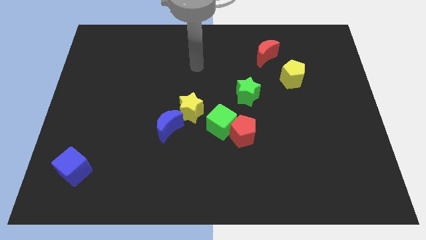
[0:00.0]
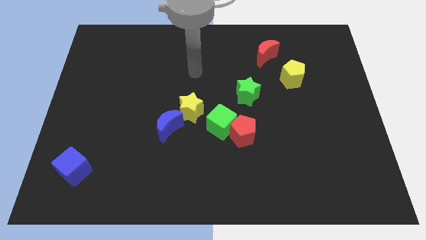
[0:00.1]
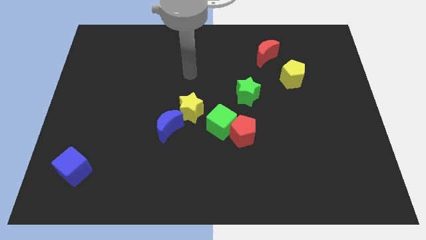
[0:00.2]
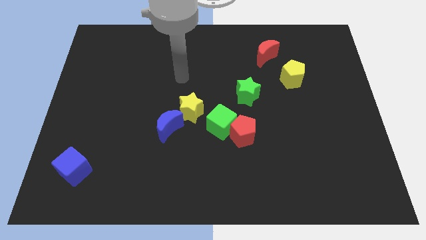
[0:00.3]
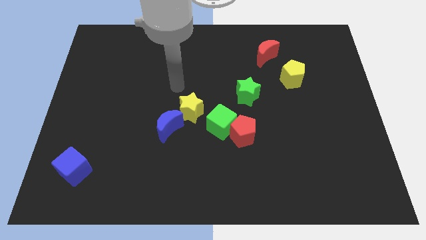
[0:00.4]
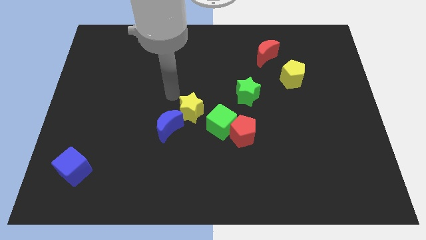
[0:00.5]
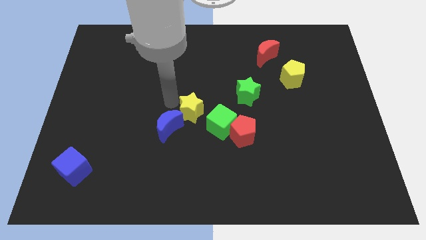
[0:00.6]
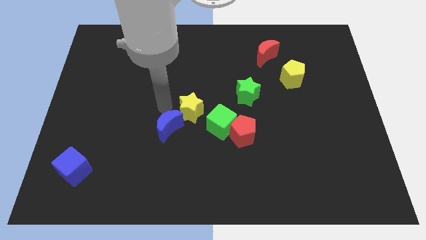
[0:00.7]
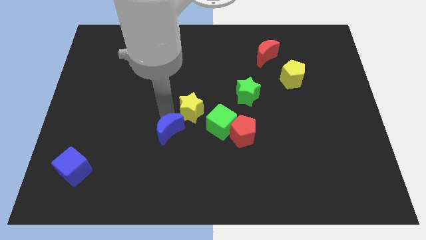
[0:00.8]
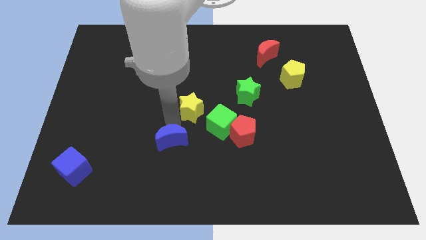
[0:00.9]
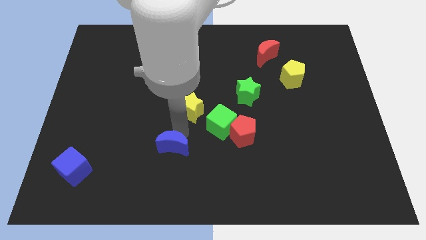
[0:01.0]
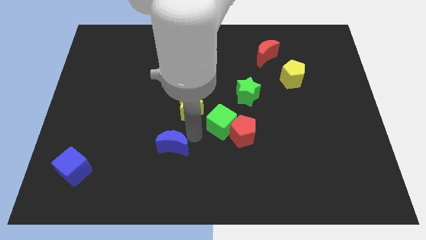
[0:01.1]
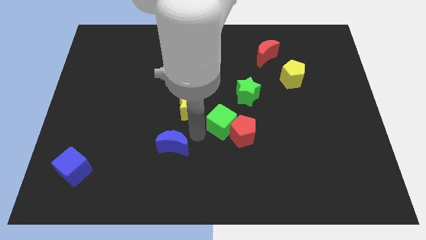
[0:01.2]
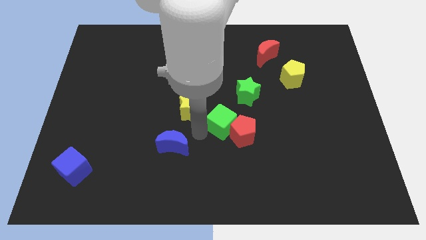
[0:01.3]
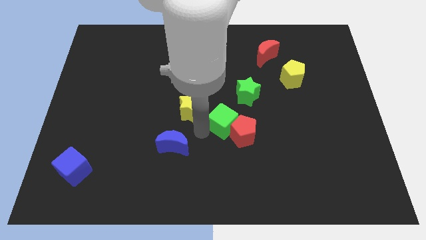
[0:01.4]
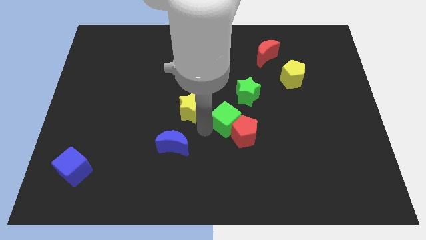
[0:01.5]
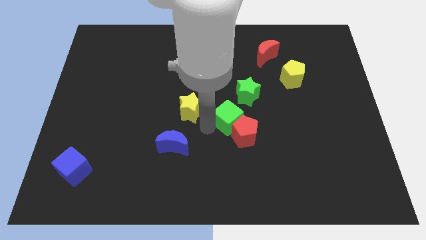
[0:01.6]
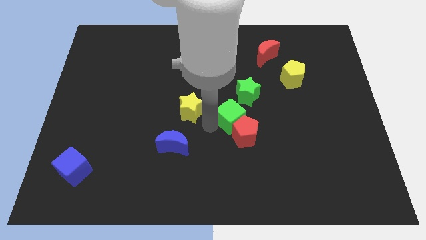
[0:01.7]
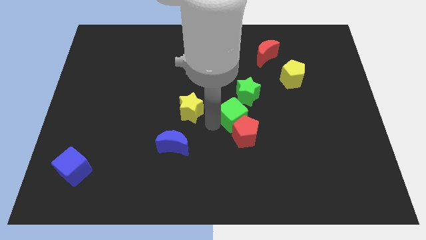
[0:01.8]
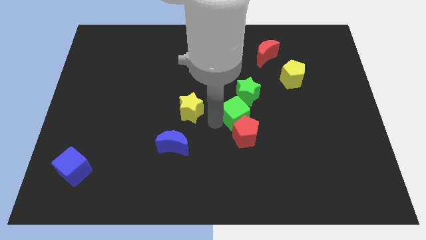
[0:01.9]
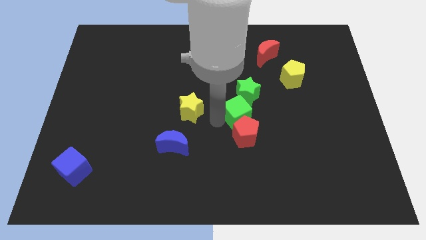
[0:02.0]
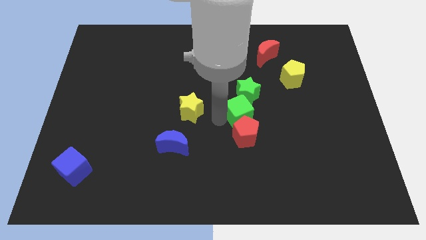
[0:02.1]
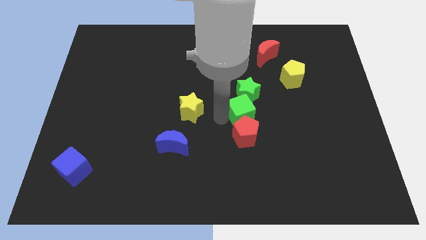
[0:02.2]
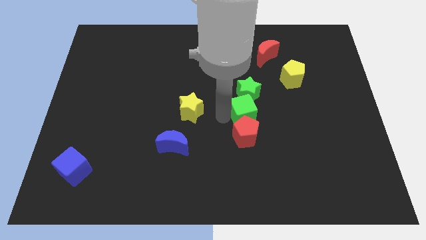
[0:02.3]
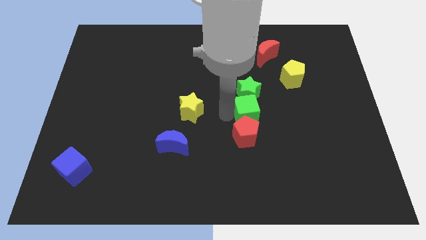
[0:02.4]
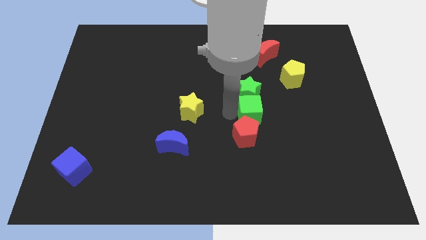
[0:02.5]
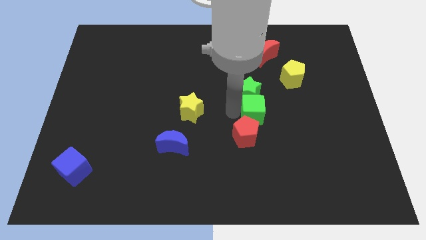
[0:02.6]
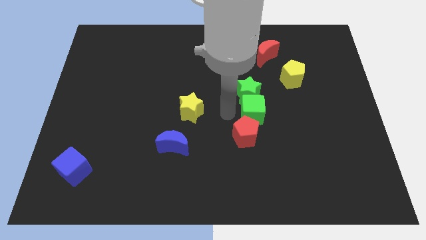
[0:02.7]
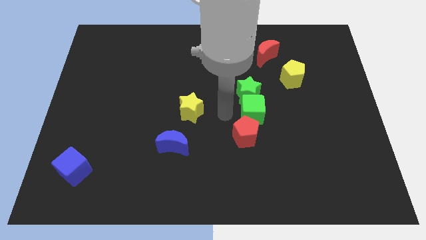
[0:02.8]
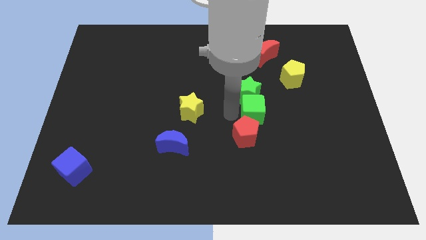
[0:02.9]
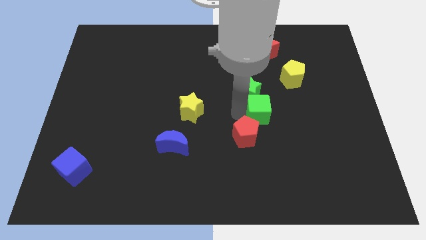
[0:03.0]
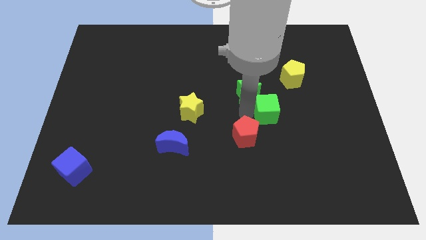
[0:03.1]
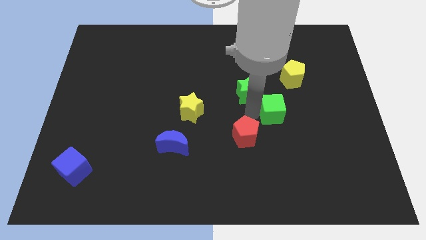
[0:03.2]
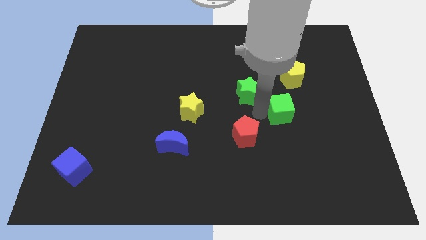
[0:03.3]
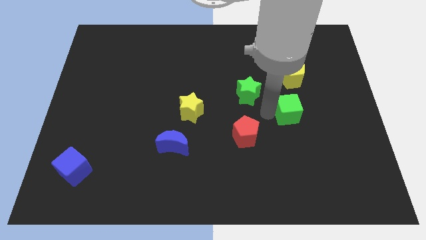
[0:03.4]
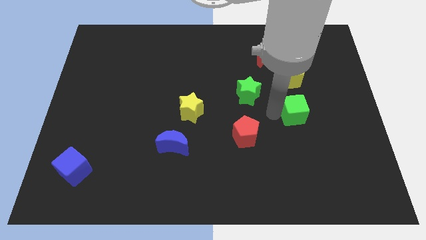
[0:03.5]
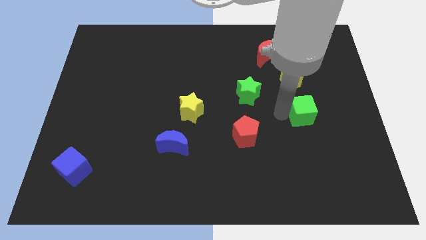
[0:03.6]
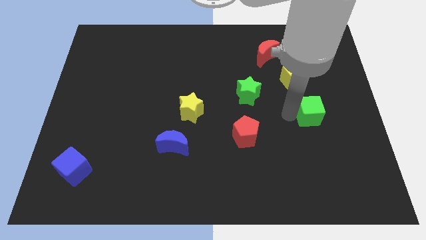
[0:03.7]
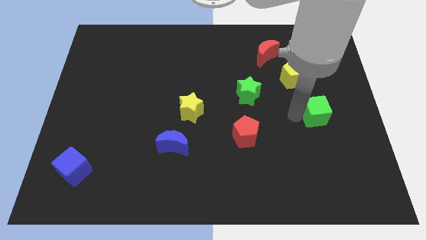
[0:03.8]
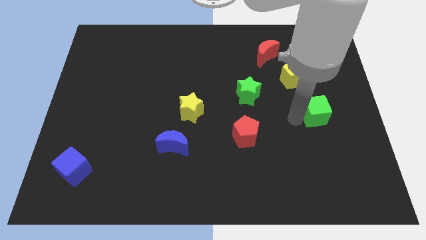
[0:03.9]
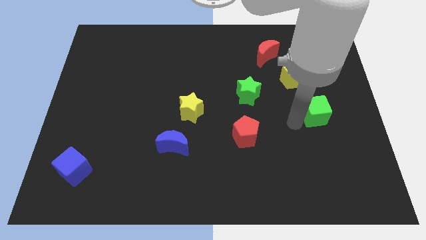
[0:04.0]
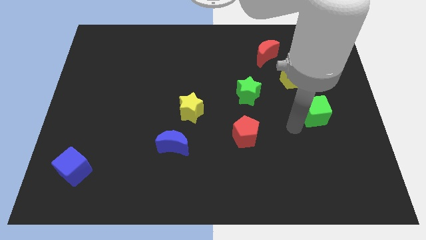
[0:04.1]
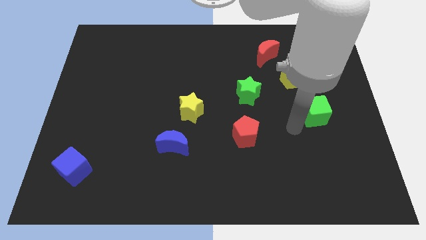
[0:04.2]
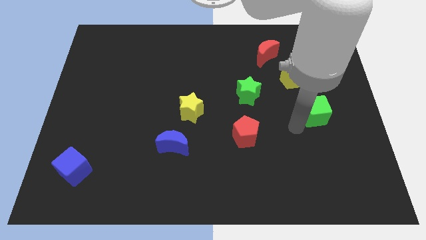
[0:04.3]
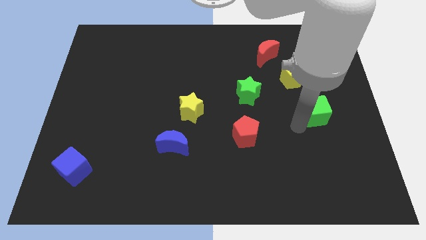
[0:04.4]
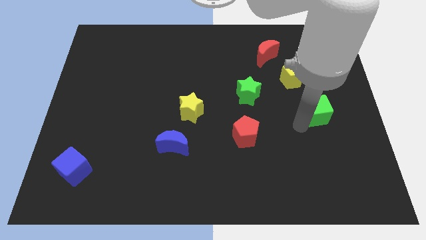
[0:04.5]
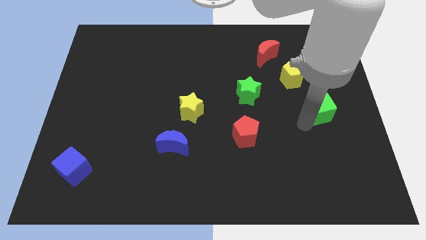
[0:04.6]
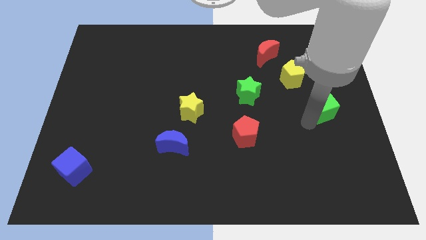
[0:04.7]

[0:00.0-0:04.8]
move the green cube to the center right

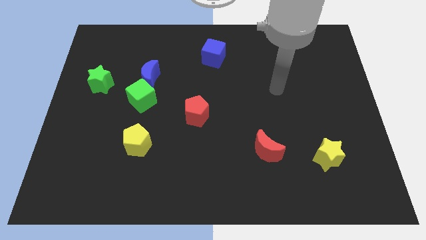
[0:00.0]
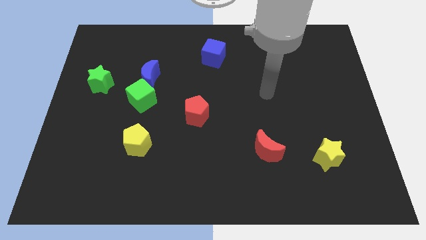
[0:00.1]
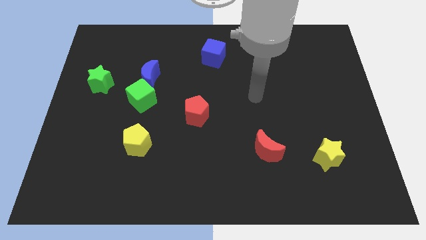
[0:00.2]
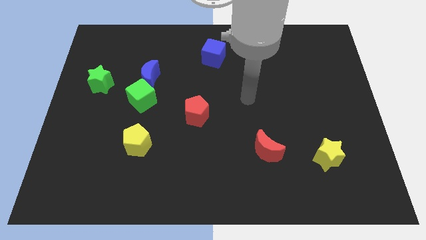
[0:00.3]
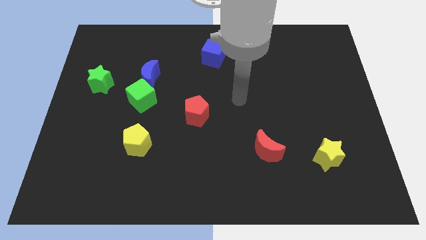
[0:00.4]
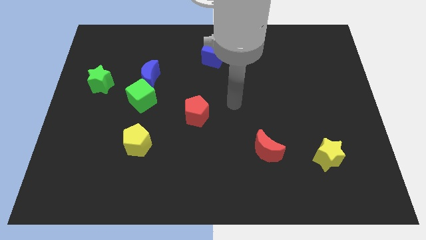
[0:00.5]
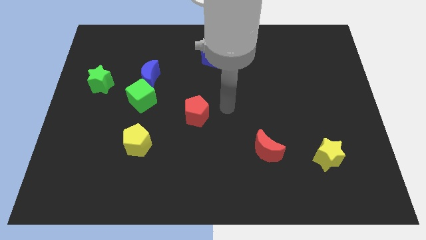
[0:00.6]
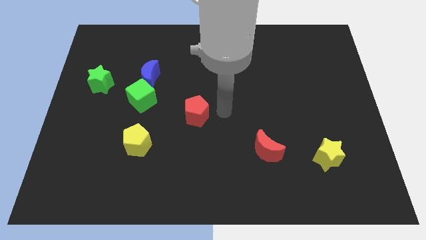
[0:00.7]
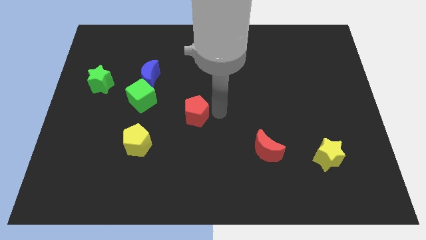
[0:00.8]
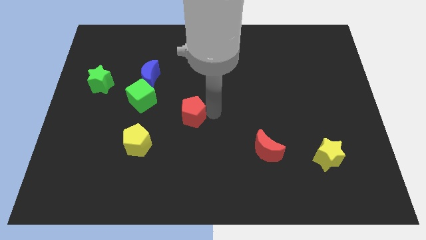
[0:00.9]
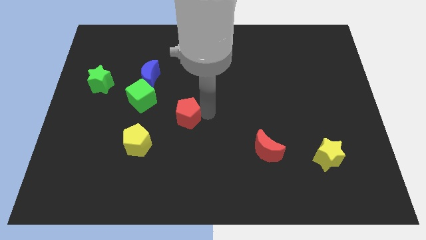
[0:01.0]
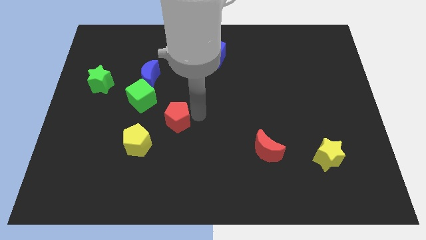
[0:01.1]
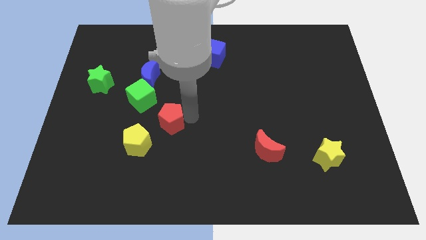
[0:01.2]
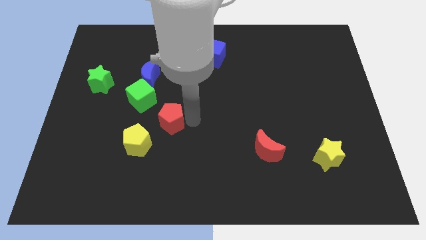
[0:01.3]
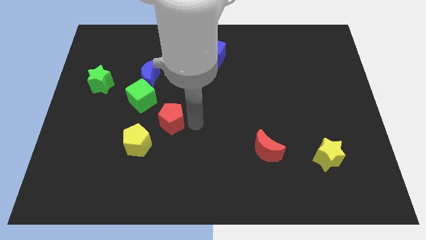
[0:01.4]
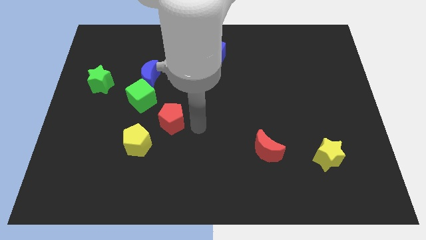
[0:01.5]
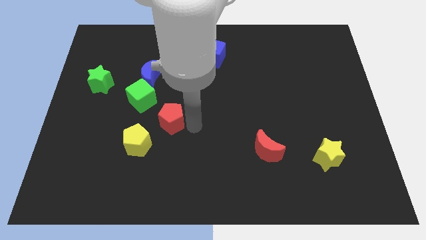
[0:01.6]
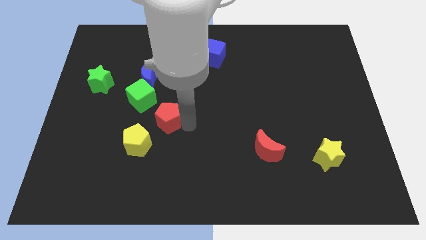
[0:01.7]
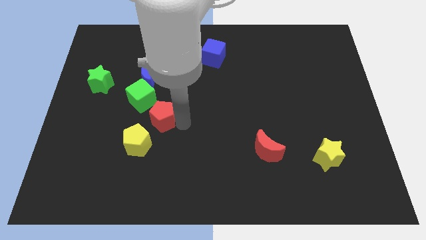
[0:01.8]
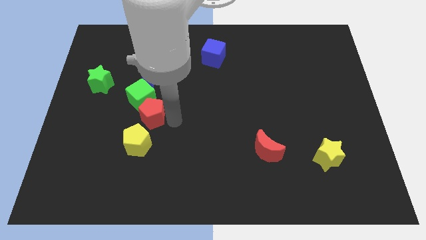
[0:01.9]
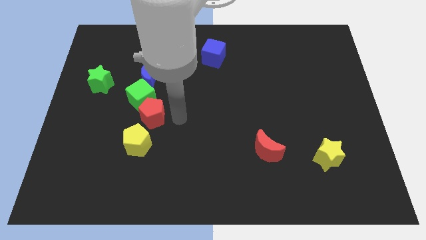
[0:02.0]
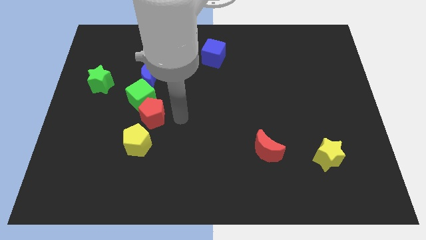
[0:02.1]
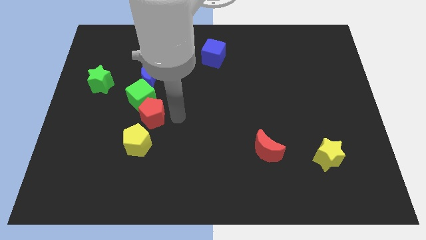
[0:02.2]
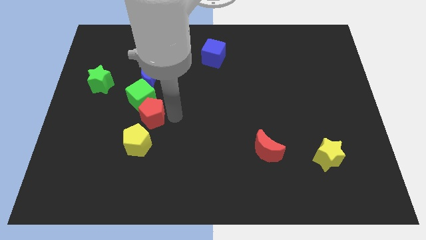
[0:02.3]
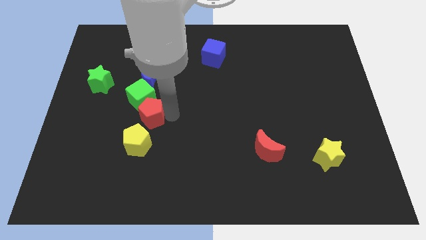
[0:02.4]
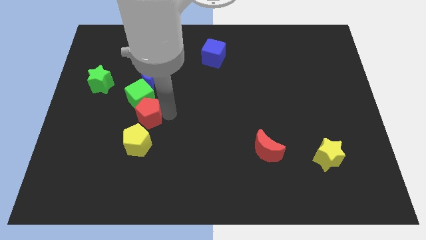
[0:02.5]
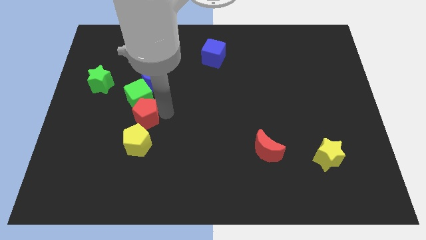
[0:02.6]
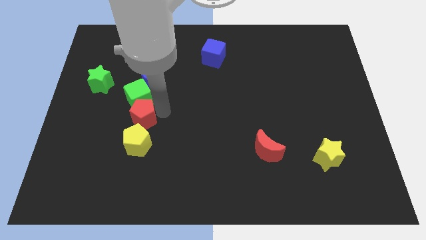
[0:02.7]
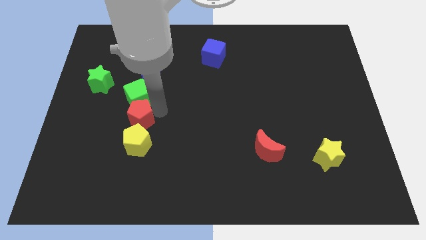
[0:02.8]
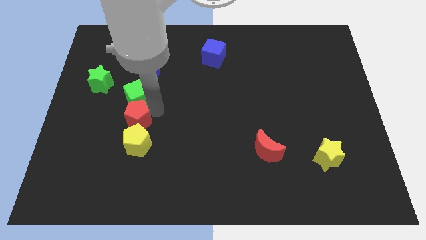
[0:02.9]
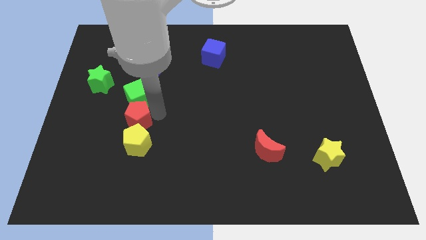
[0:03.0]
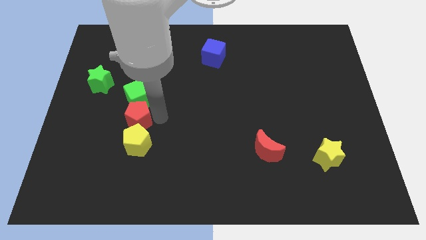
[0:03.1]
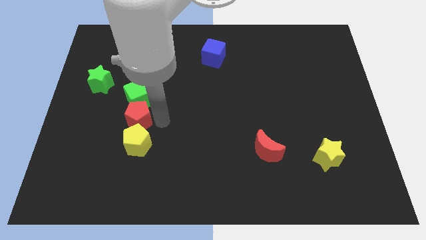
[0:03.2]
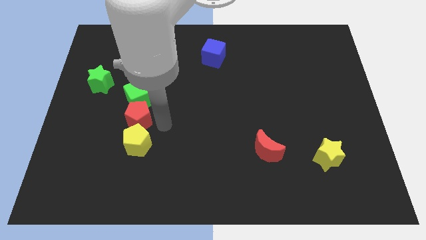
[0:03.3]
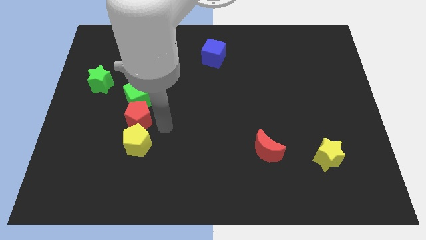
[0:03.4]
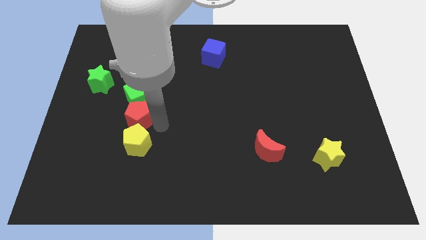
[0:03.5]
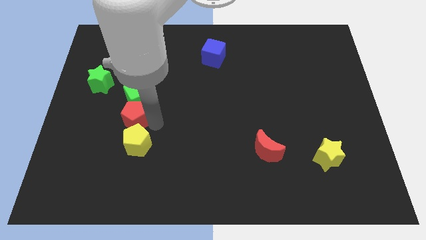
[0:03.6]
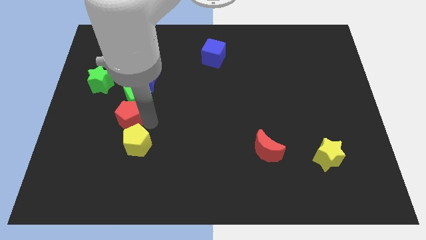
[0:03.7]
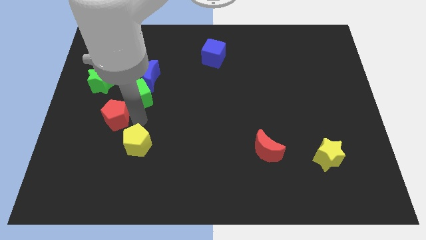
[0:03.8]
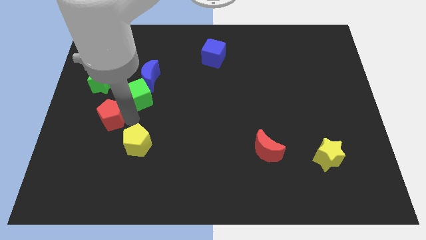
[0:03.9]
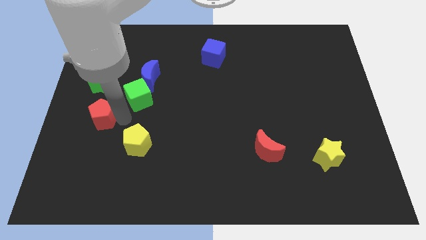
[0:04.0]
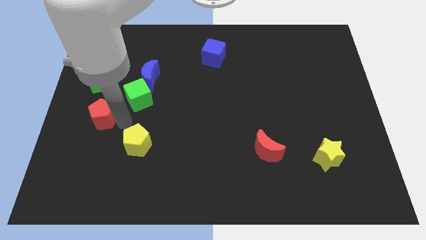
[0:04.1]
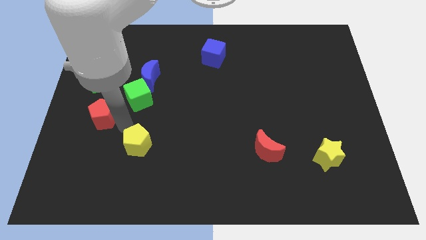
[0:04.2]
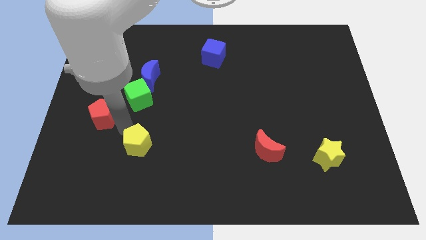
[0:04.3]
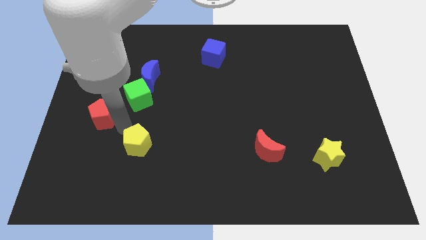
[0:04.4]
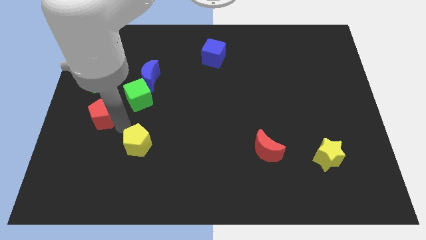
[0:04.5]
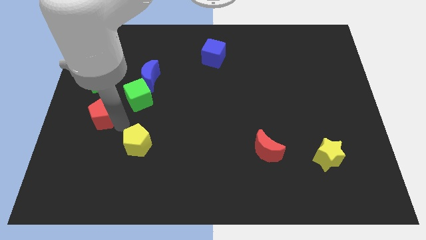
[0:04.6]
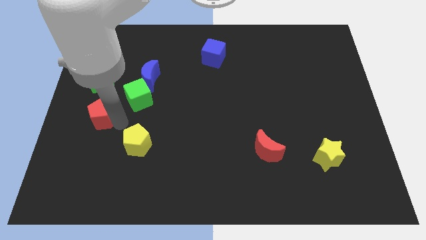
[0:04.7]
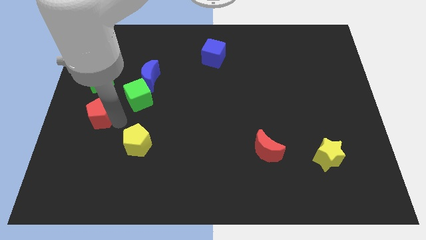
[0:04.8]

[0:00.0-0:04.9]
put the red pentagon to the left side of the board
